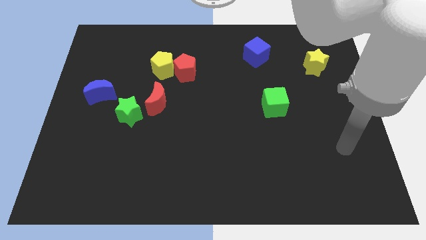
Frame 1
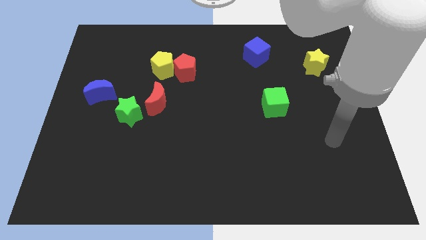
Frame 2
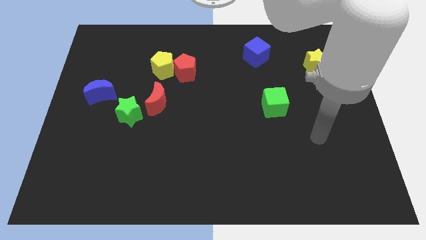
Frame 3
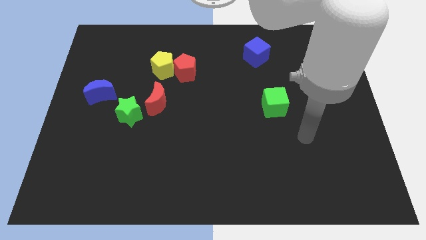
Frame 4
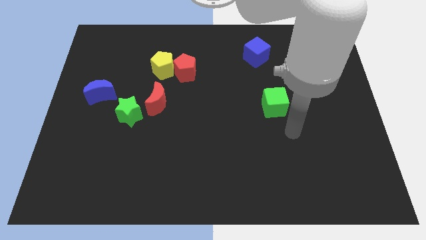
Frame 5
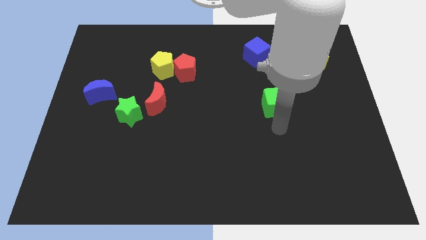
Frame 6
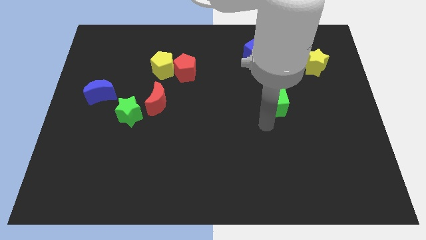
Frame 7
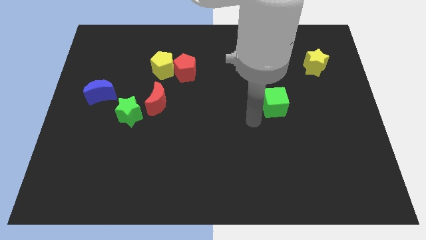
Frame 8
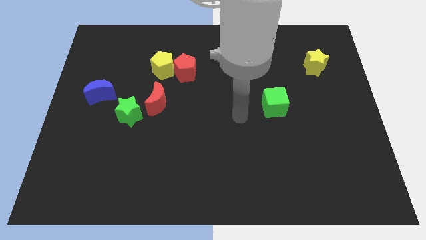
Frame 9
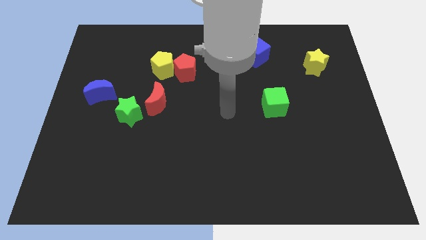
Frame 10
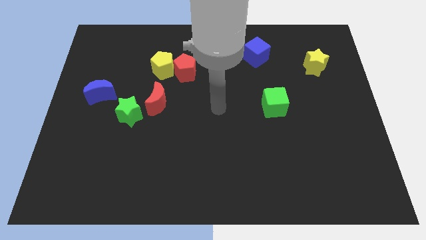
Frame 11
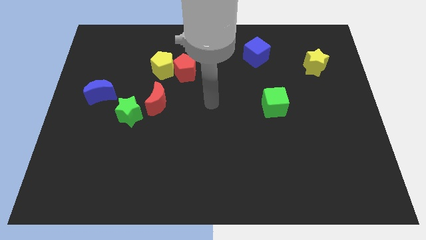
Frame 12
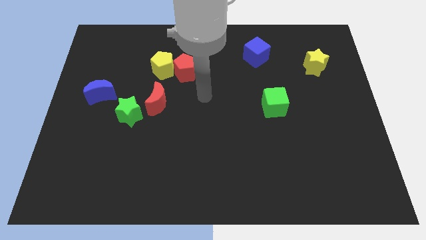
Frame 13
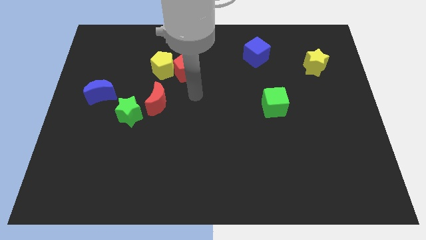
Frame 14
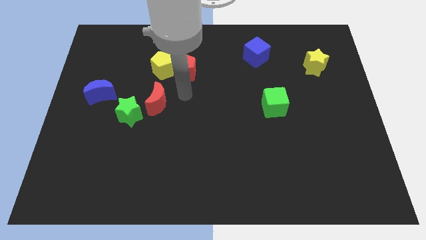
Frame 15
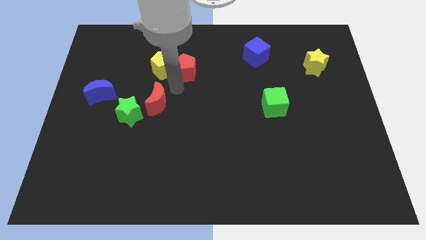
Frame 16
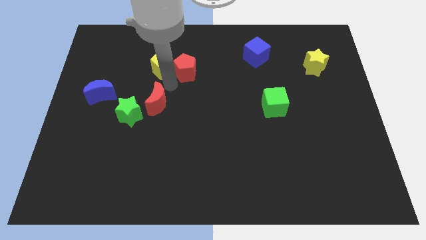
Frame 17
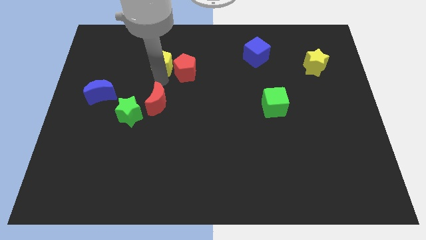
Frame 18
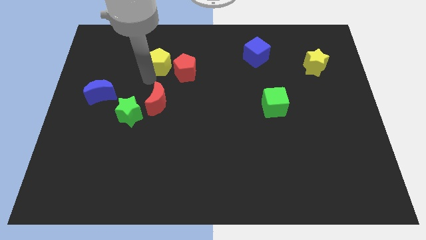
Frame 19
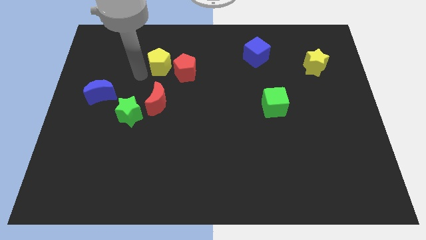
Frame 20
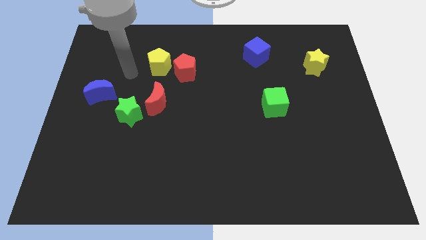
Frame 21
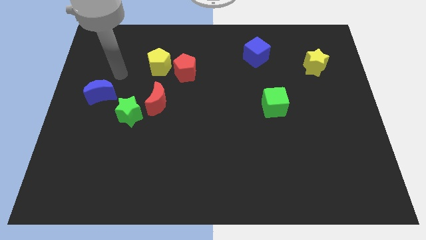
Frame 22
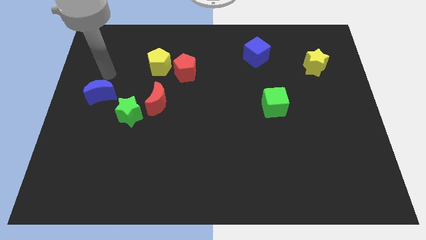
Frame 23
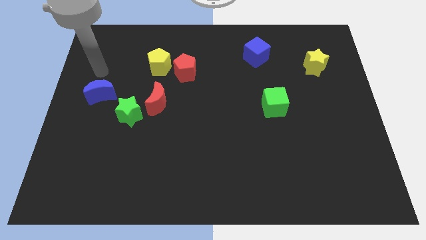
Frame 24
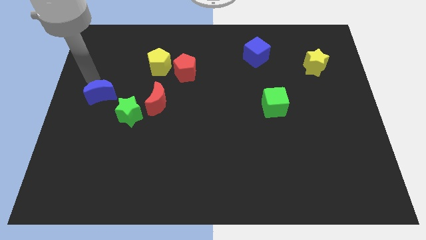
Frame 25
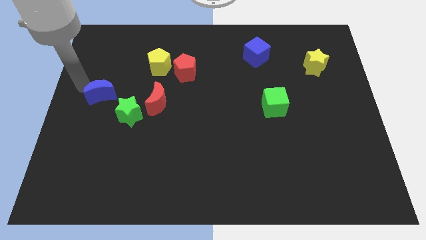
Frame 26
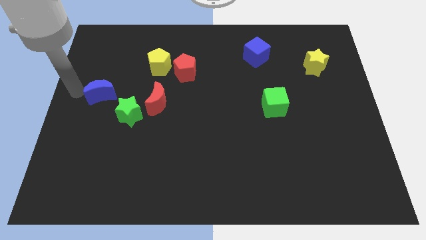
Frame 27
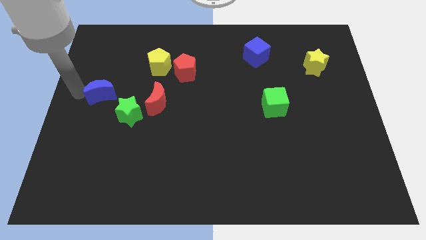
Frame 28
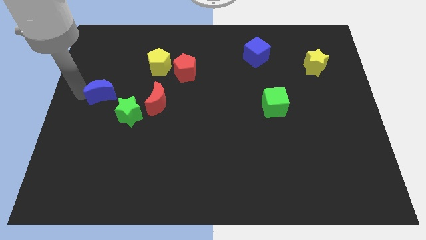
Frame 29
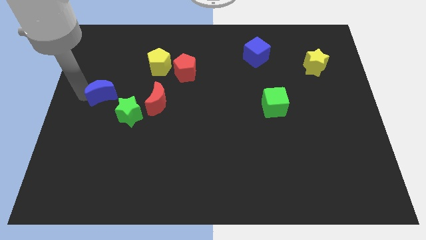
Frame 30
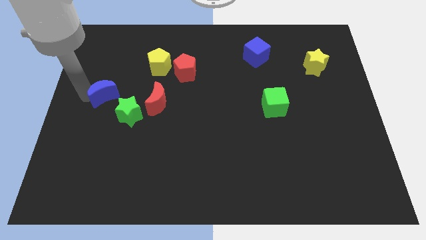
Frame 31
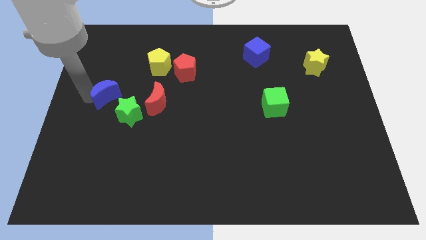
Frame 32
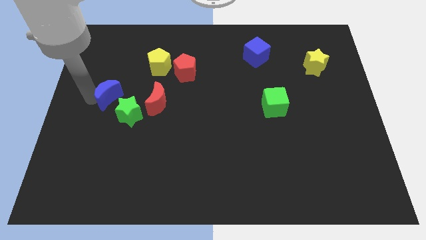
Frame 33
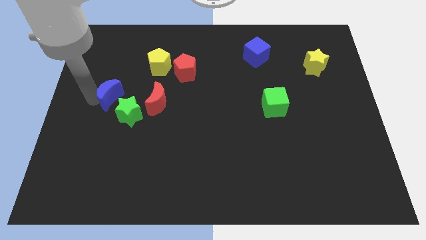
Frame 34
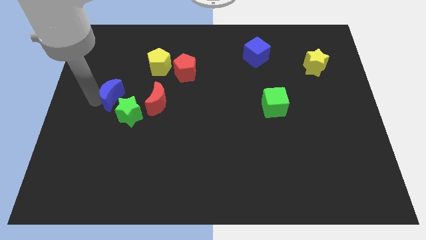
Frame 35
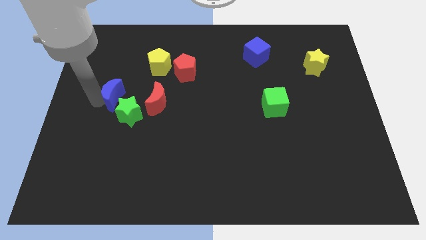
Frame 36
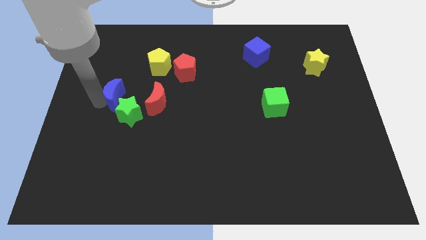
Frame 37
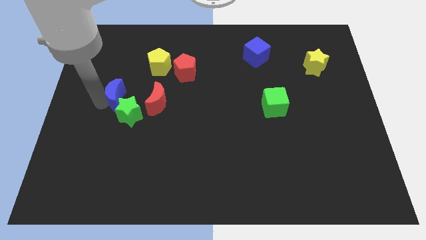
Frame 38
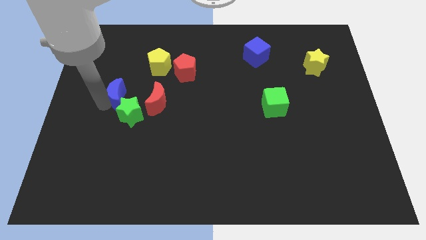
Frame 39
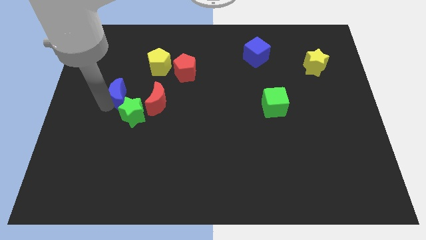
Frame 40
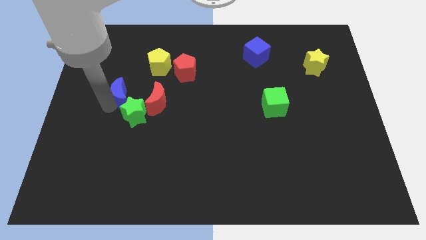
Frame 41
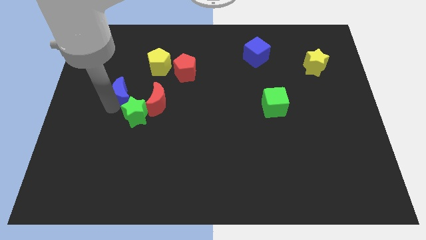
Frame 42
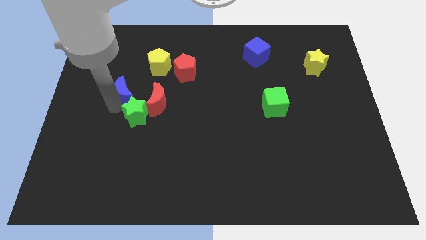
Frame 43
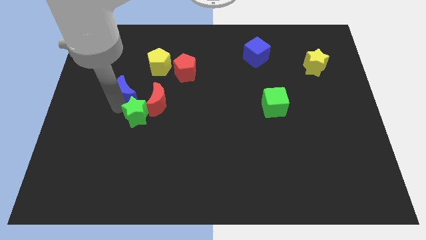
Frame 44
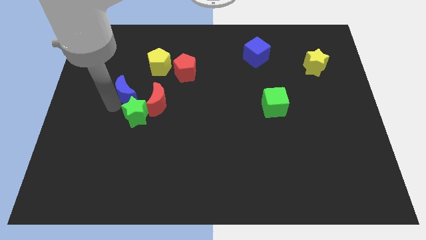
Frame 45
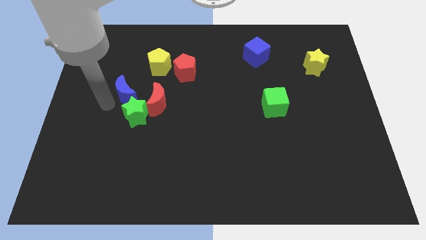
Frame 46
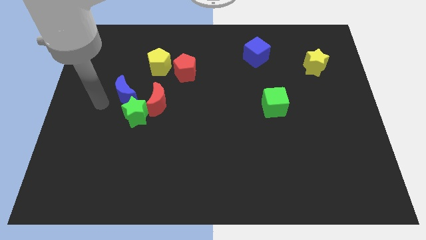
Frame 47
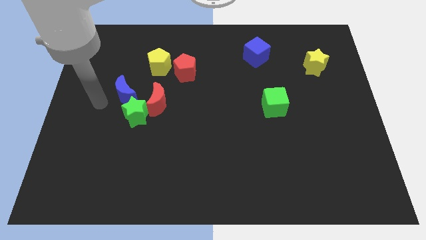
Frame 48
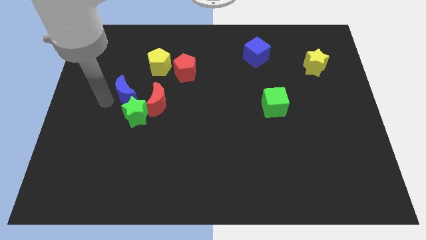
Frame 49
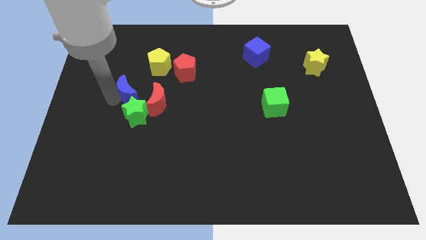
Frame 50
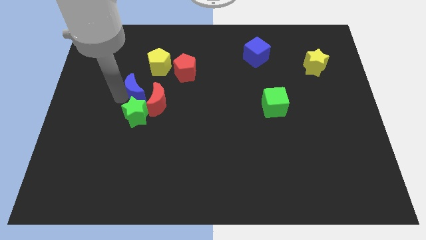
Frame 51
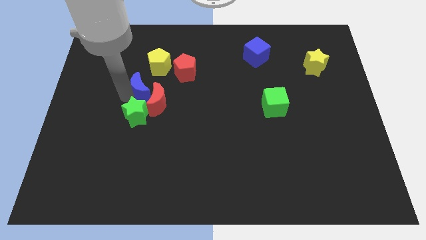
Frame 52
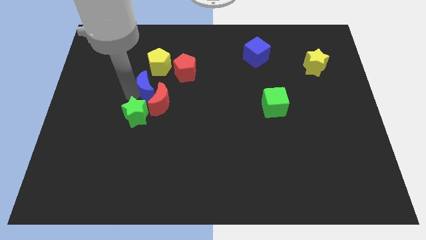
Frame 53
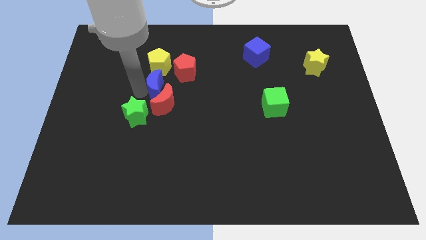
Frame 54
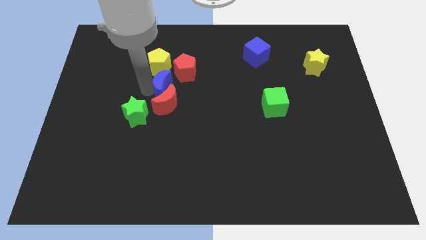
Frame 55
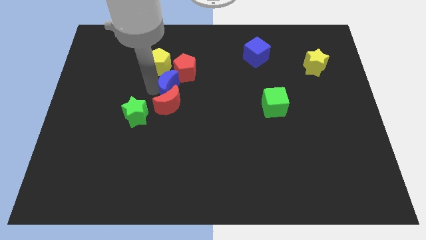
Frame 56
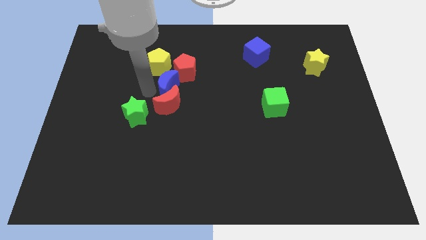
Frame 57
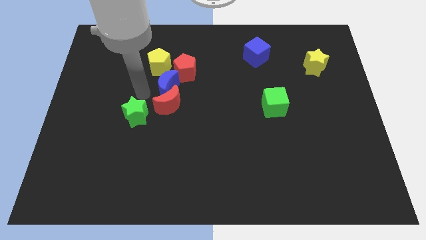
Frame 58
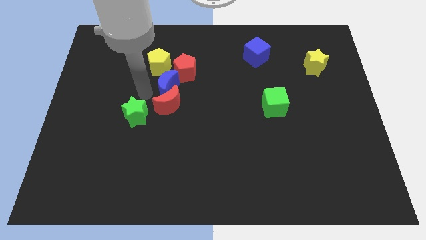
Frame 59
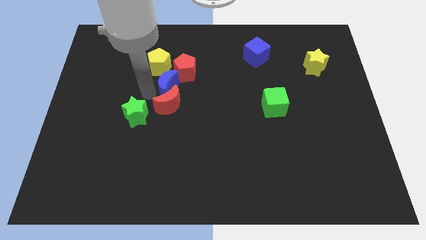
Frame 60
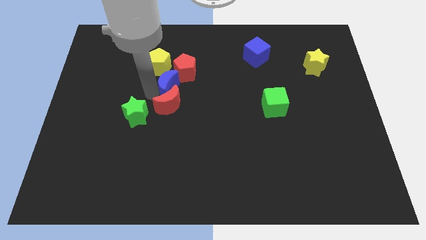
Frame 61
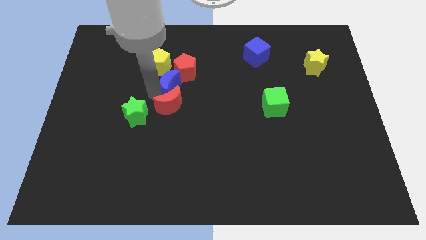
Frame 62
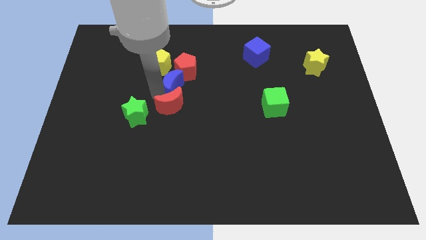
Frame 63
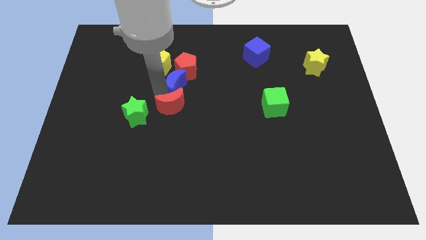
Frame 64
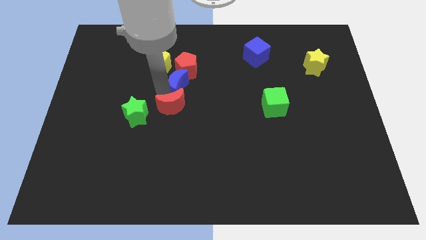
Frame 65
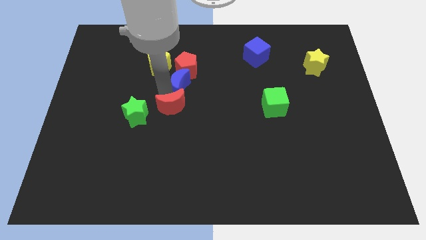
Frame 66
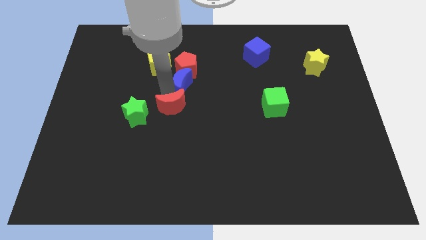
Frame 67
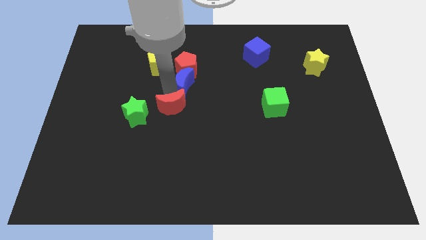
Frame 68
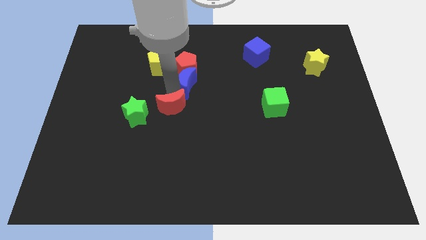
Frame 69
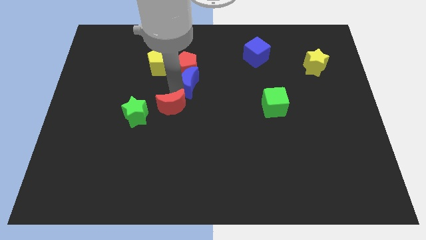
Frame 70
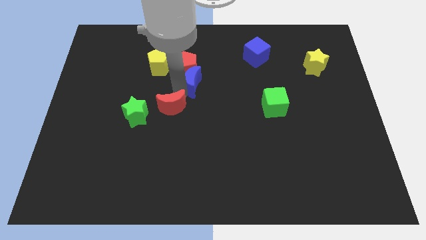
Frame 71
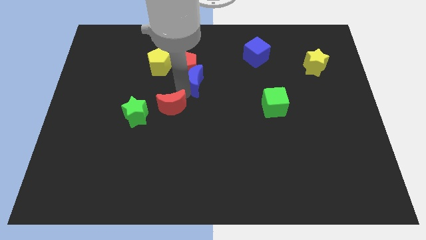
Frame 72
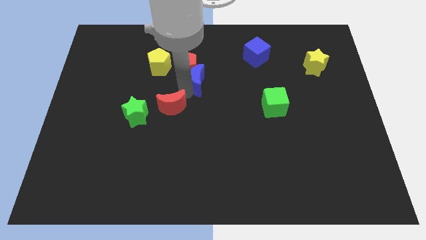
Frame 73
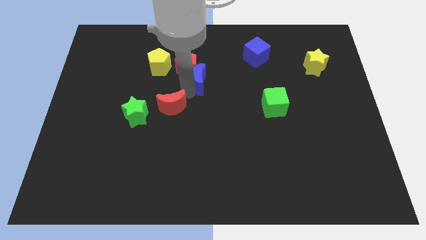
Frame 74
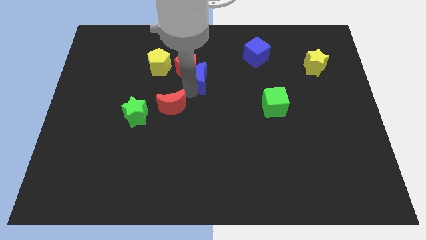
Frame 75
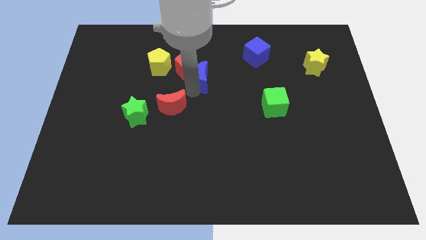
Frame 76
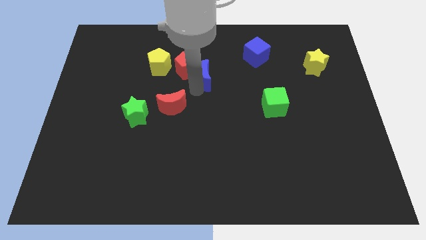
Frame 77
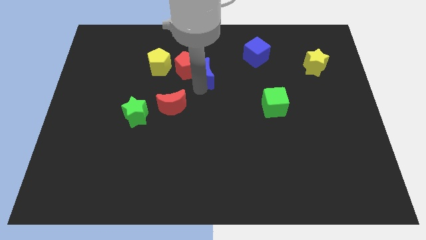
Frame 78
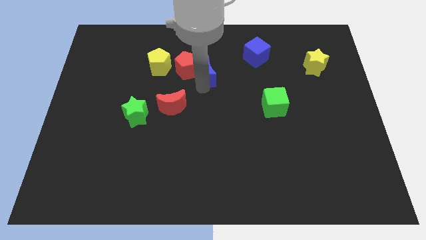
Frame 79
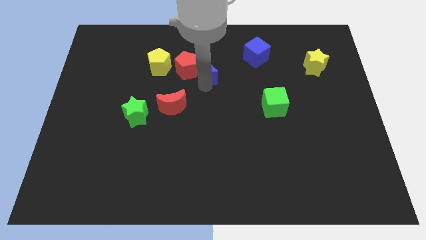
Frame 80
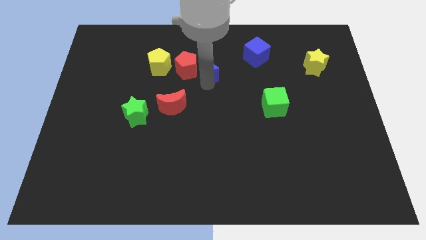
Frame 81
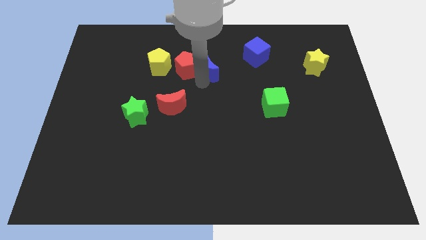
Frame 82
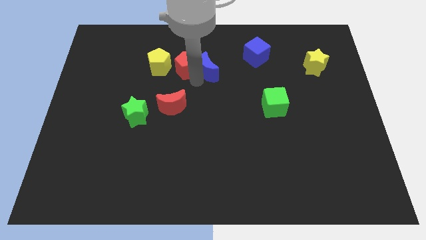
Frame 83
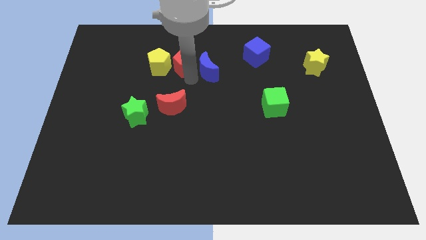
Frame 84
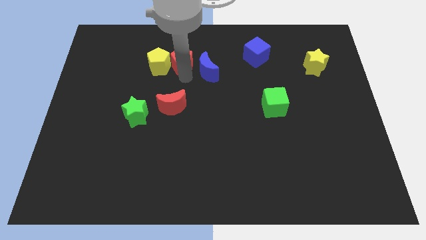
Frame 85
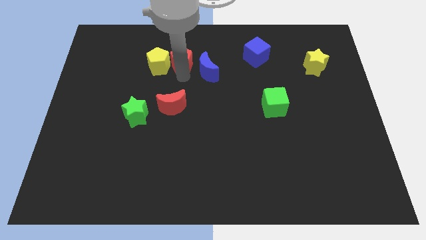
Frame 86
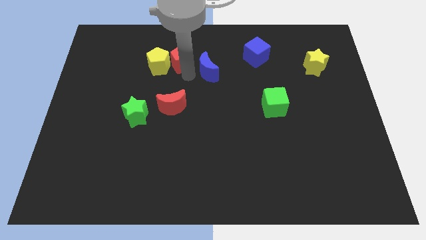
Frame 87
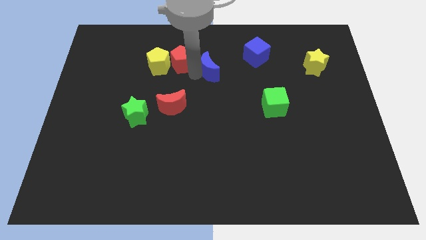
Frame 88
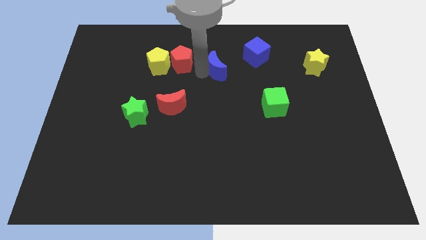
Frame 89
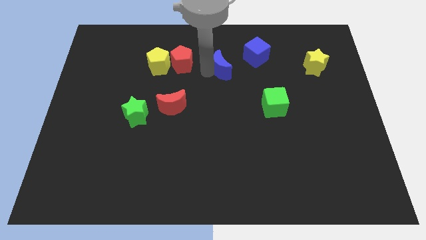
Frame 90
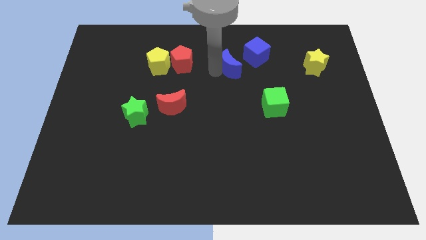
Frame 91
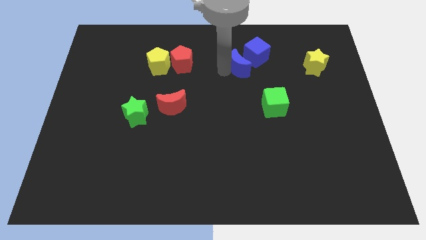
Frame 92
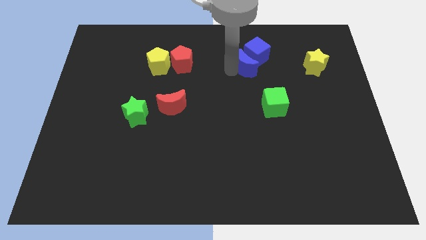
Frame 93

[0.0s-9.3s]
put the blue moon to the blue cube
